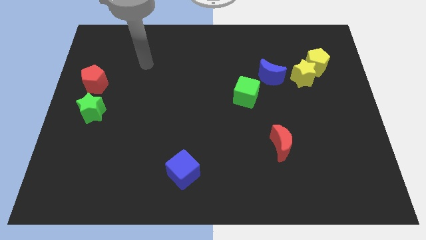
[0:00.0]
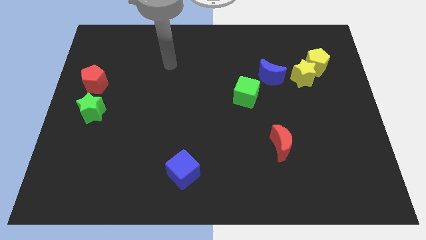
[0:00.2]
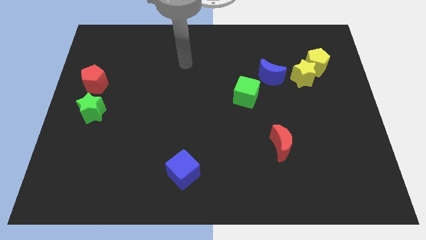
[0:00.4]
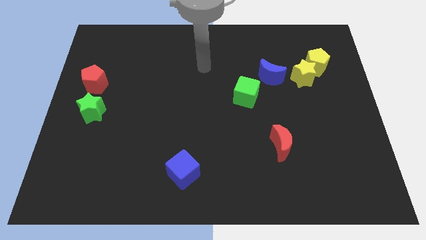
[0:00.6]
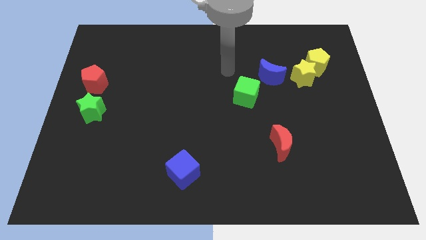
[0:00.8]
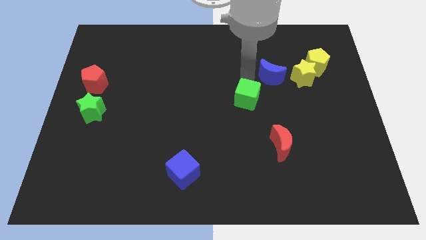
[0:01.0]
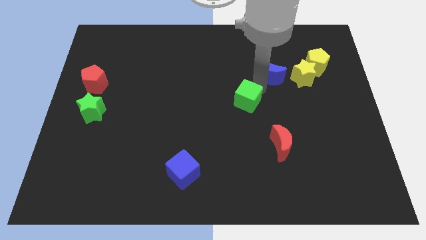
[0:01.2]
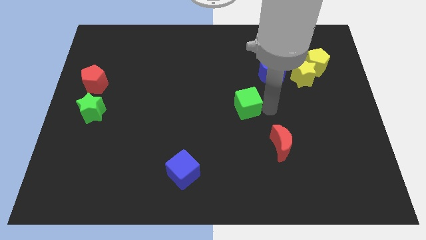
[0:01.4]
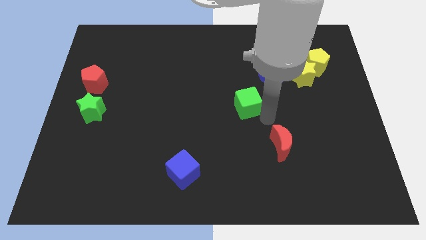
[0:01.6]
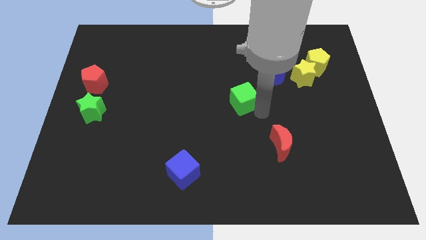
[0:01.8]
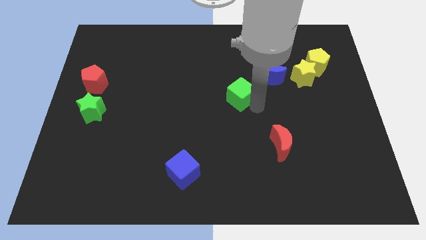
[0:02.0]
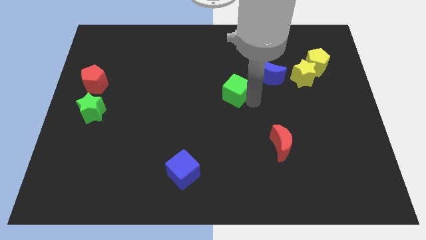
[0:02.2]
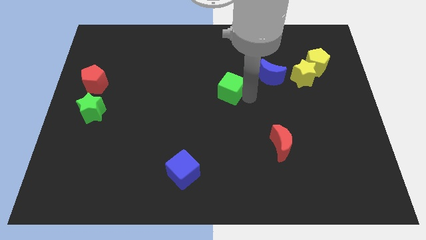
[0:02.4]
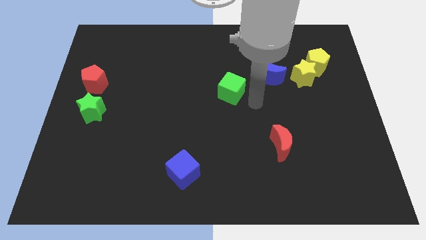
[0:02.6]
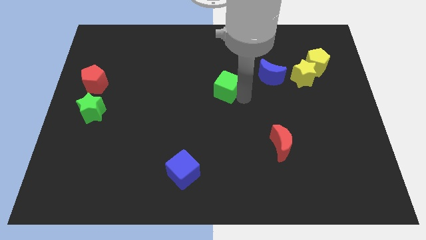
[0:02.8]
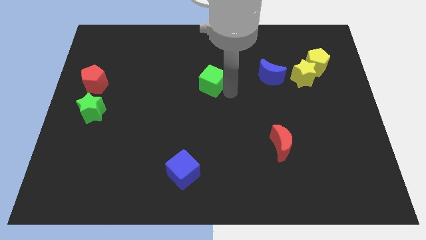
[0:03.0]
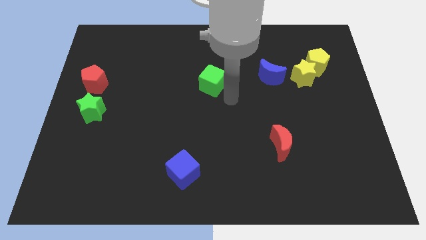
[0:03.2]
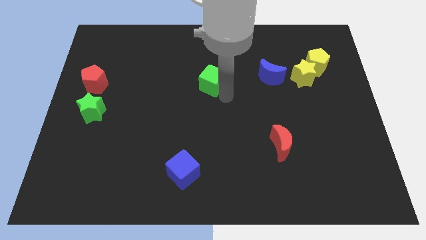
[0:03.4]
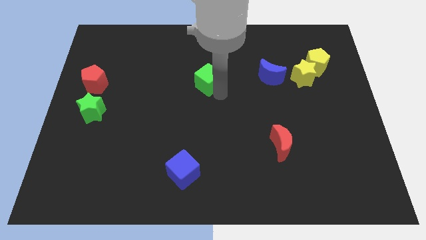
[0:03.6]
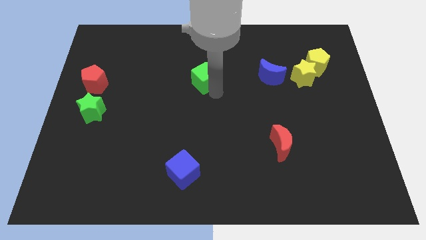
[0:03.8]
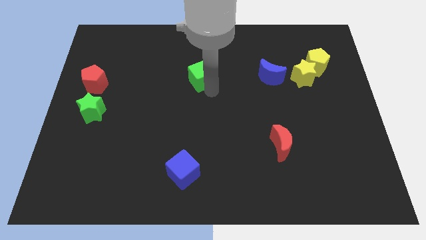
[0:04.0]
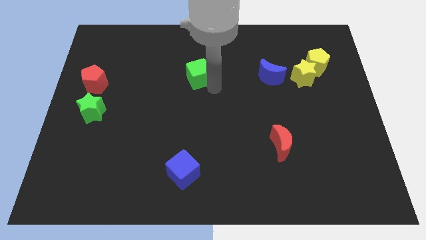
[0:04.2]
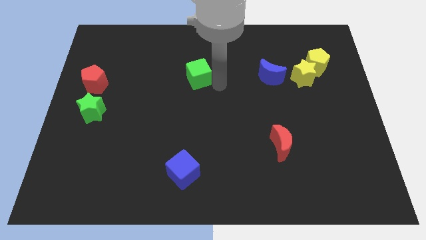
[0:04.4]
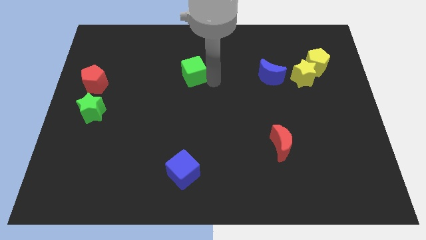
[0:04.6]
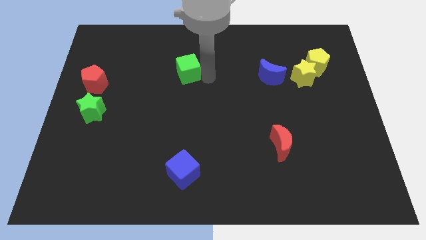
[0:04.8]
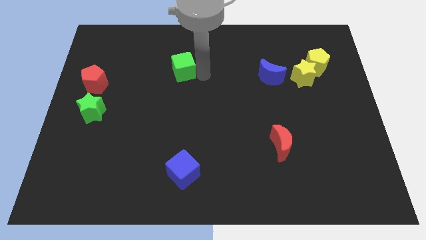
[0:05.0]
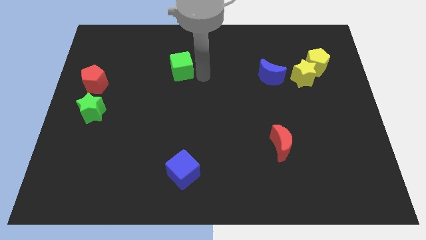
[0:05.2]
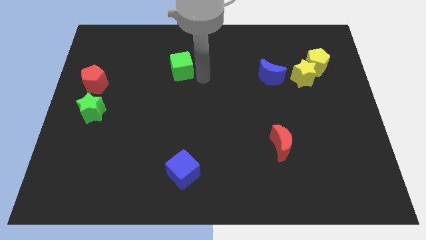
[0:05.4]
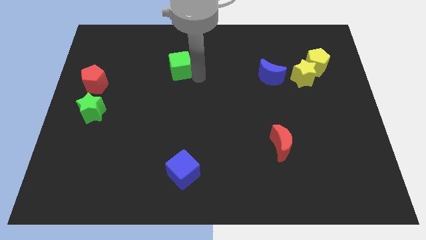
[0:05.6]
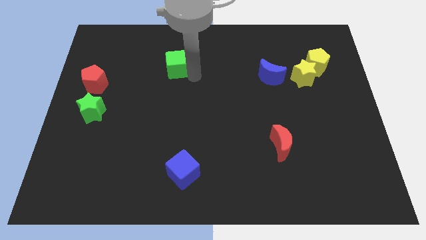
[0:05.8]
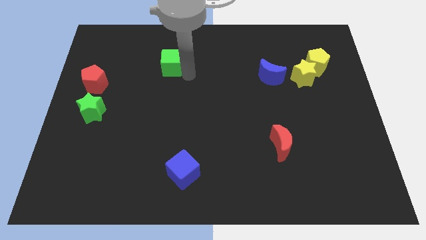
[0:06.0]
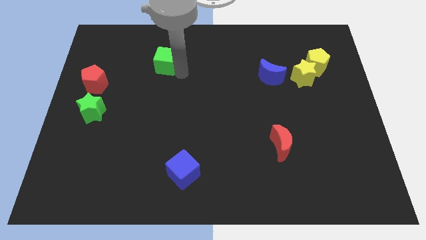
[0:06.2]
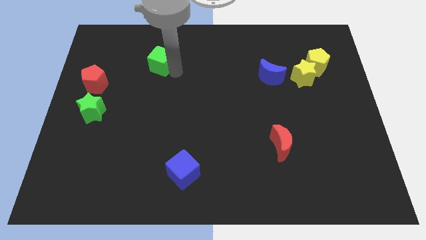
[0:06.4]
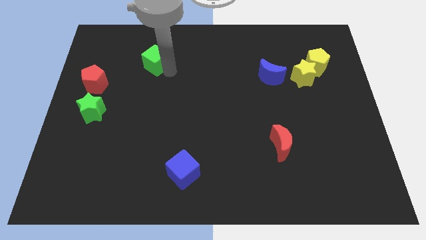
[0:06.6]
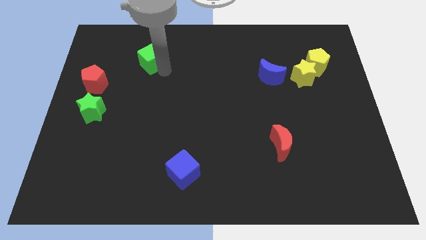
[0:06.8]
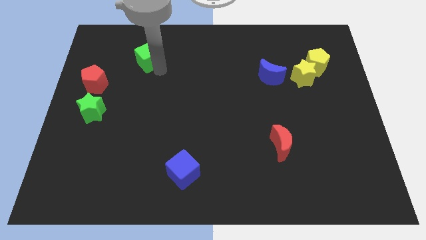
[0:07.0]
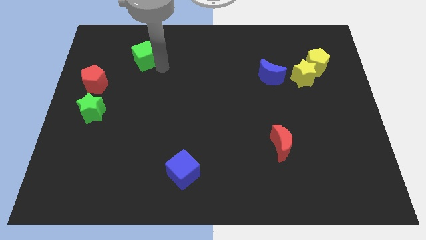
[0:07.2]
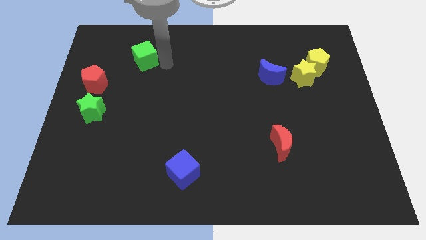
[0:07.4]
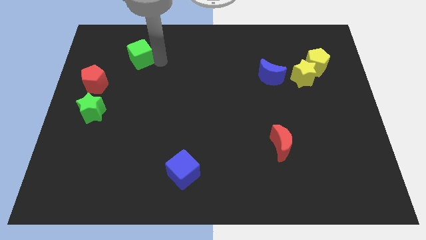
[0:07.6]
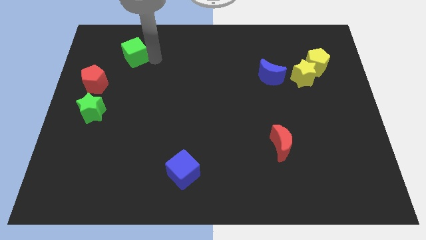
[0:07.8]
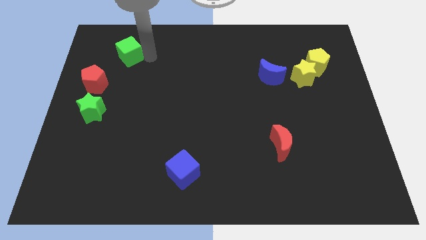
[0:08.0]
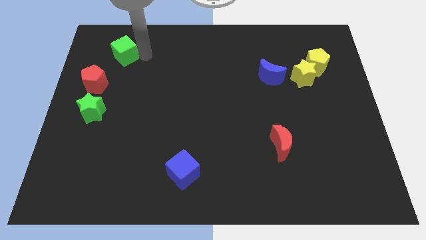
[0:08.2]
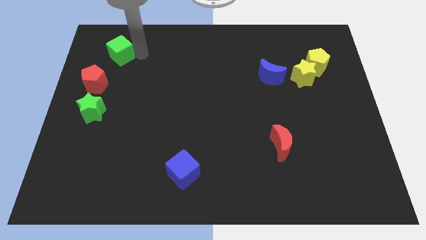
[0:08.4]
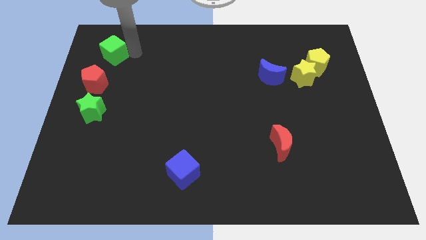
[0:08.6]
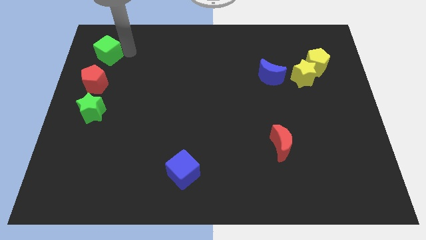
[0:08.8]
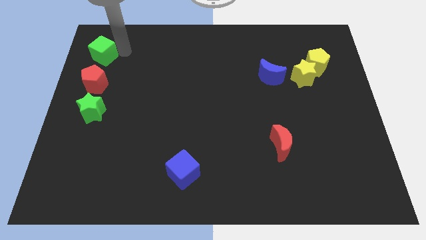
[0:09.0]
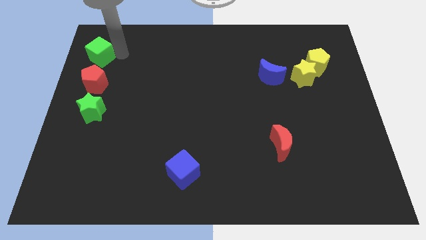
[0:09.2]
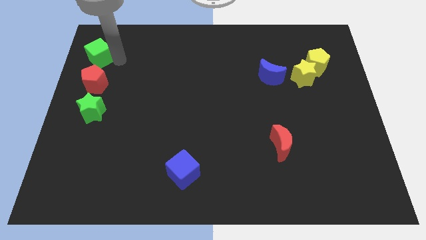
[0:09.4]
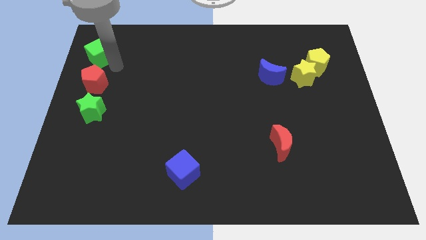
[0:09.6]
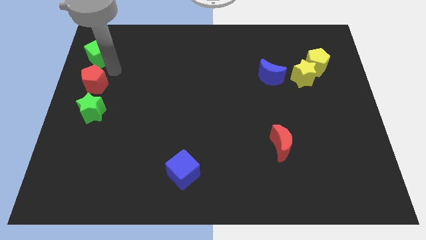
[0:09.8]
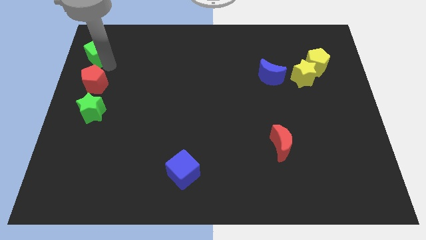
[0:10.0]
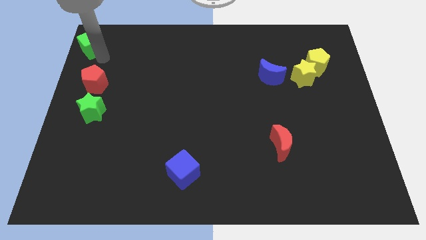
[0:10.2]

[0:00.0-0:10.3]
slide the green cube to the upper left corner
